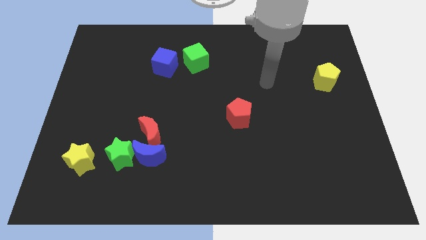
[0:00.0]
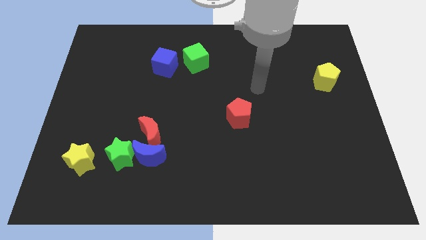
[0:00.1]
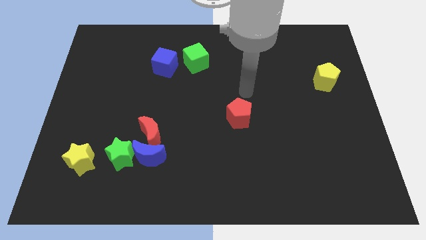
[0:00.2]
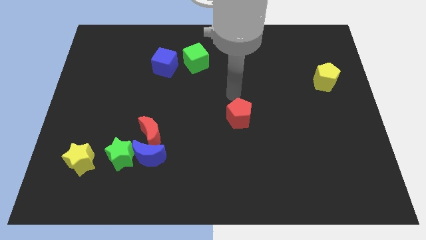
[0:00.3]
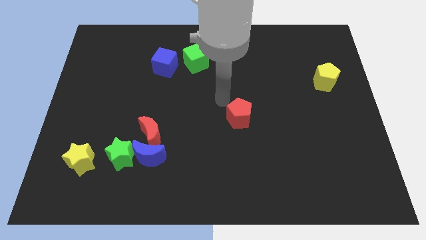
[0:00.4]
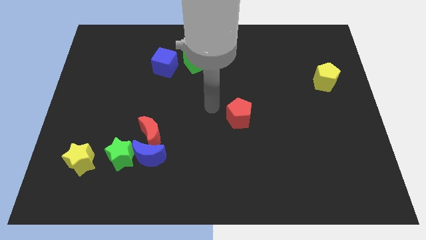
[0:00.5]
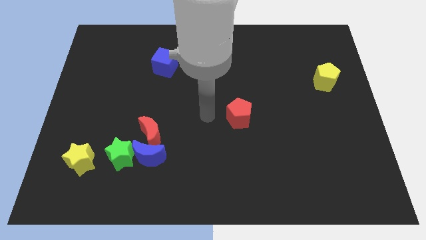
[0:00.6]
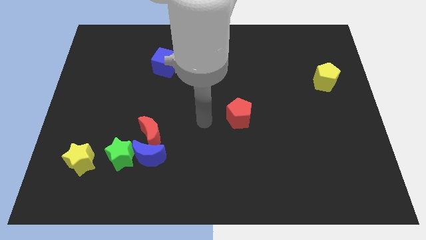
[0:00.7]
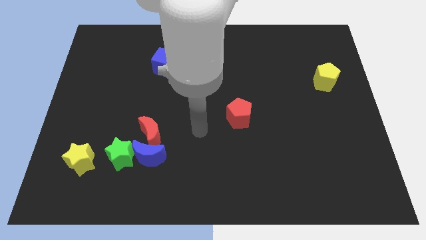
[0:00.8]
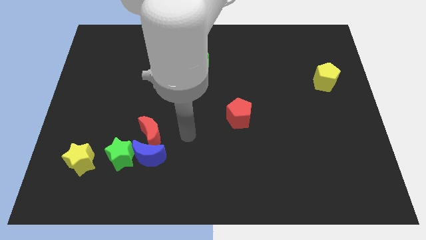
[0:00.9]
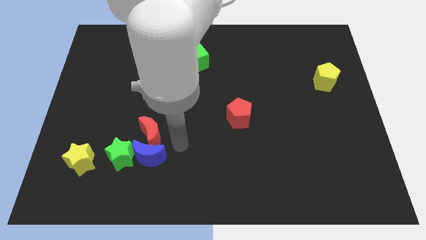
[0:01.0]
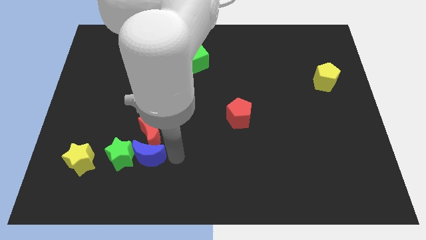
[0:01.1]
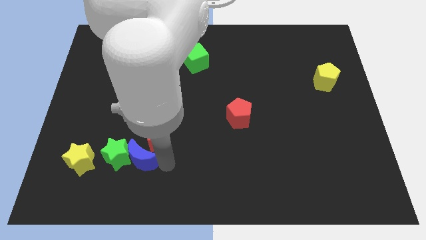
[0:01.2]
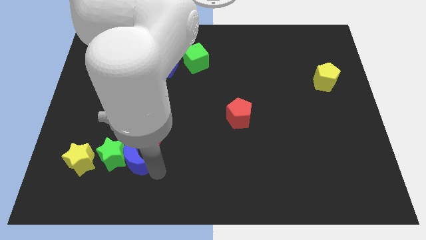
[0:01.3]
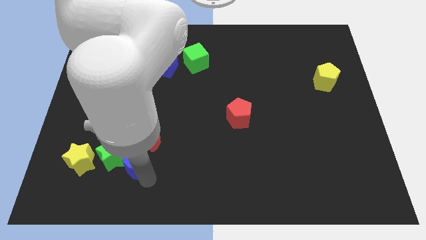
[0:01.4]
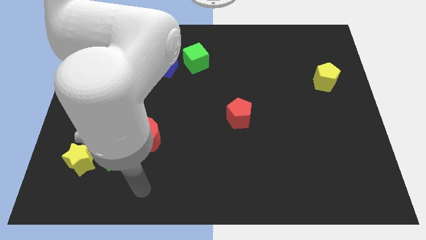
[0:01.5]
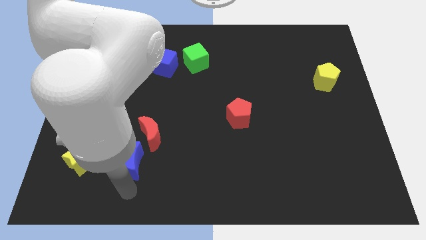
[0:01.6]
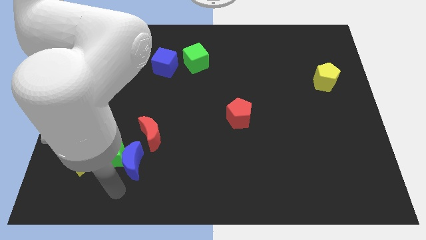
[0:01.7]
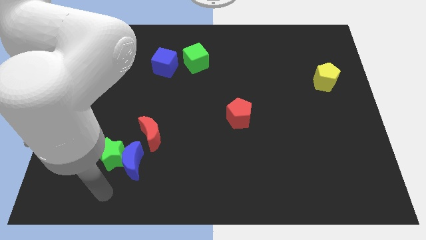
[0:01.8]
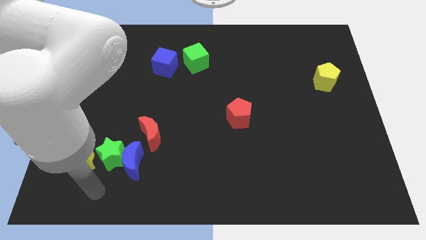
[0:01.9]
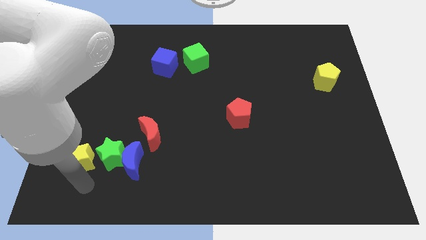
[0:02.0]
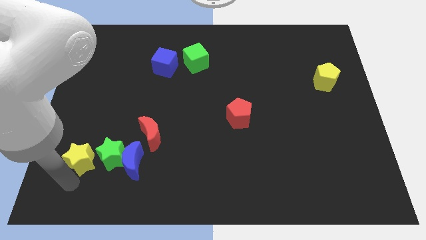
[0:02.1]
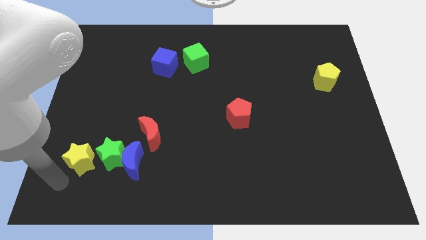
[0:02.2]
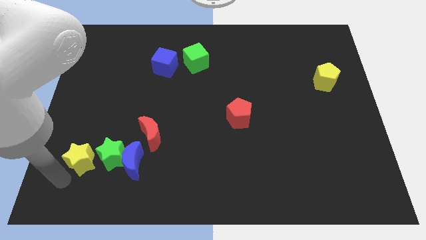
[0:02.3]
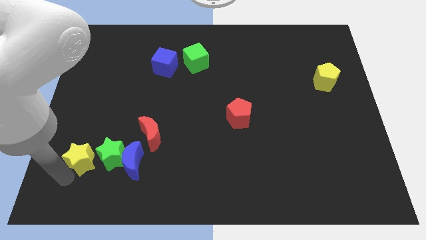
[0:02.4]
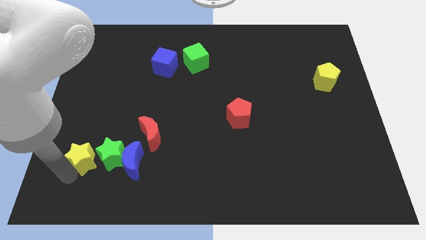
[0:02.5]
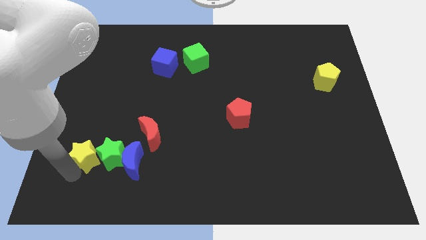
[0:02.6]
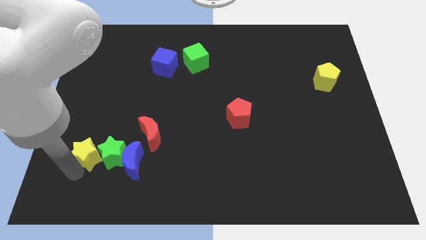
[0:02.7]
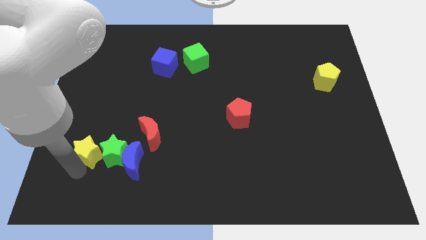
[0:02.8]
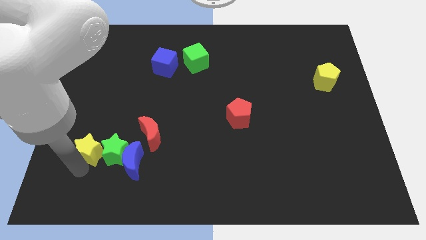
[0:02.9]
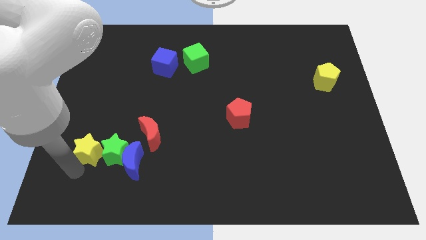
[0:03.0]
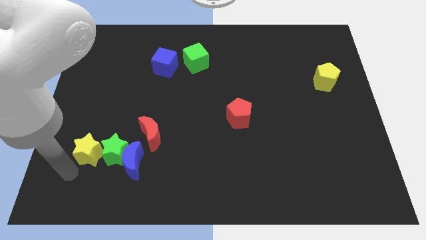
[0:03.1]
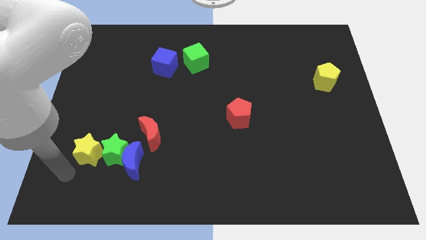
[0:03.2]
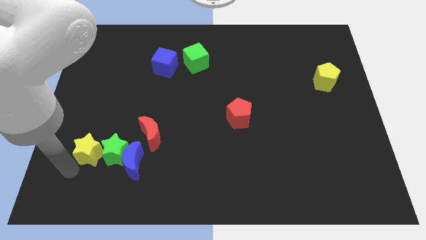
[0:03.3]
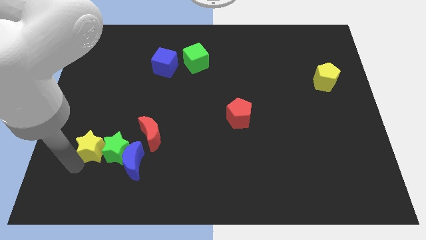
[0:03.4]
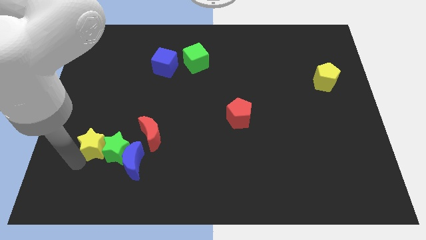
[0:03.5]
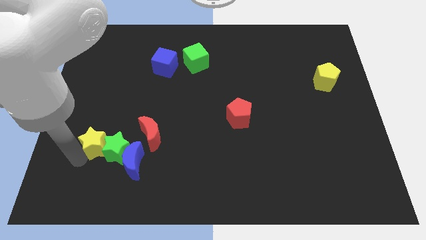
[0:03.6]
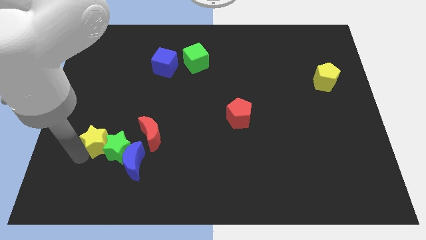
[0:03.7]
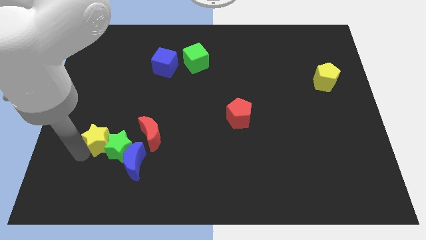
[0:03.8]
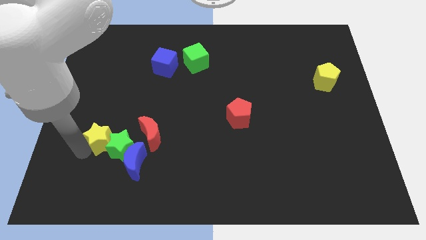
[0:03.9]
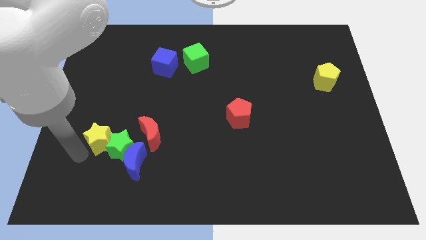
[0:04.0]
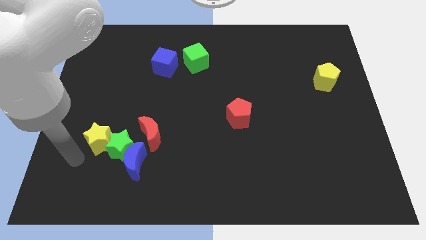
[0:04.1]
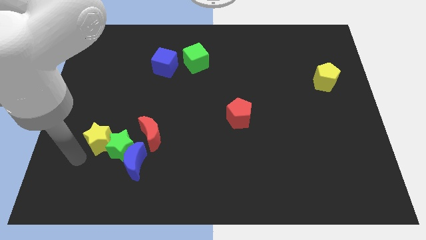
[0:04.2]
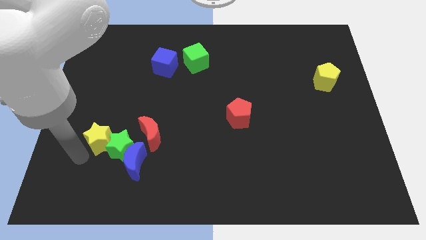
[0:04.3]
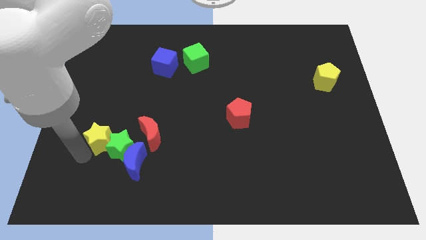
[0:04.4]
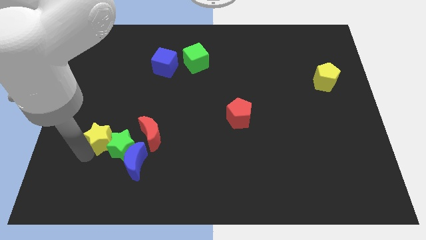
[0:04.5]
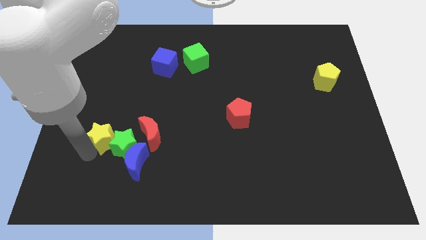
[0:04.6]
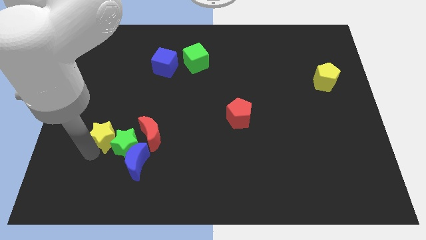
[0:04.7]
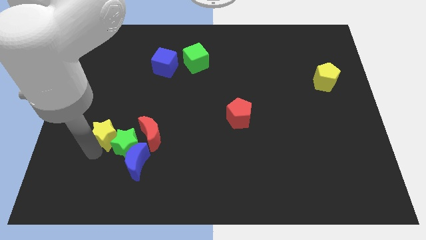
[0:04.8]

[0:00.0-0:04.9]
slide the yellow star somewhat up and to the right

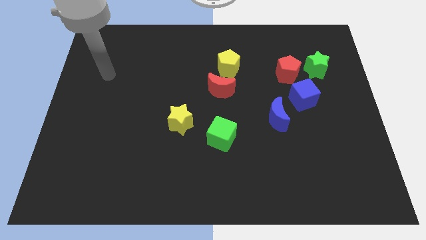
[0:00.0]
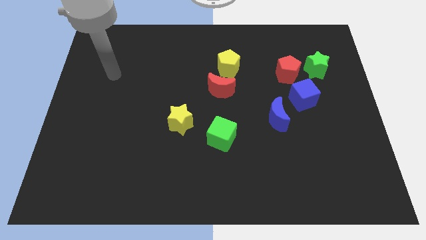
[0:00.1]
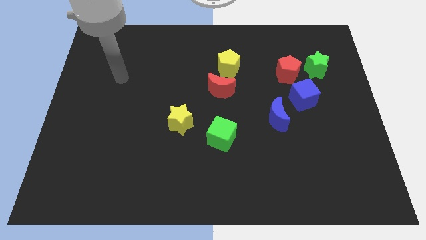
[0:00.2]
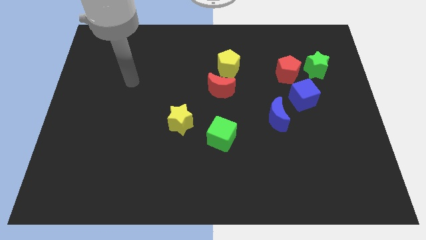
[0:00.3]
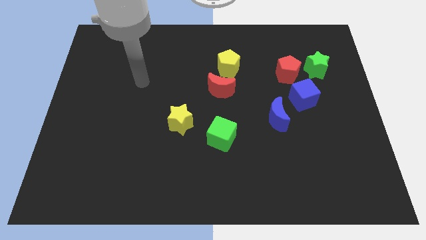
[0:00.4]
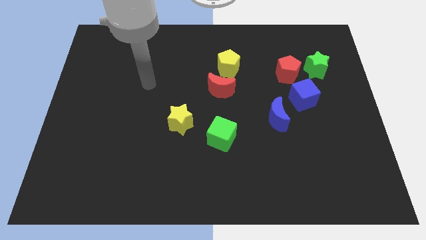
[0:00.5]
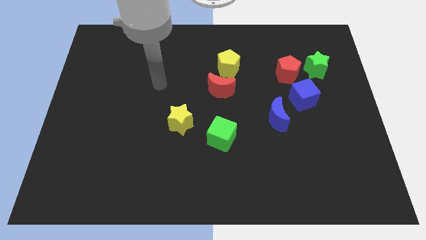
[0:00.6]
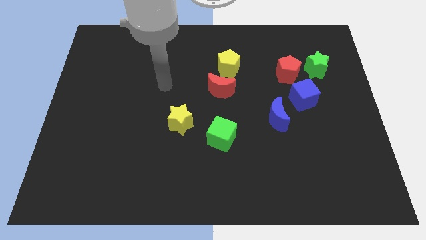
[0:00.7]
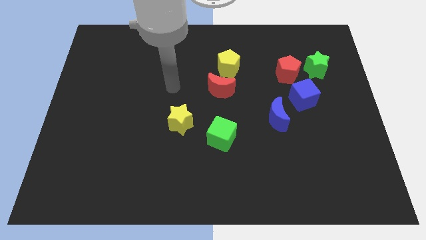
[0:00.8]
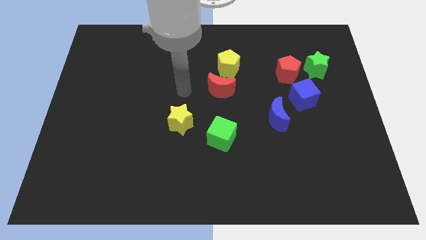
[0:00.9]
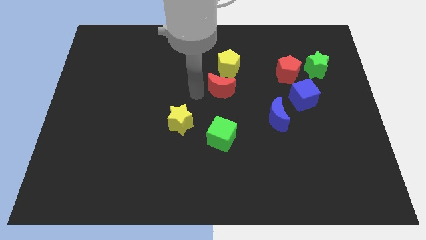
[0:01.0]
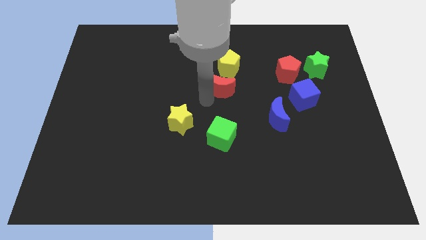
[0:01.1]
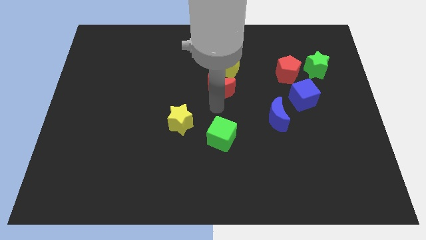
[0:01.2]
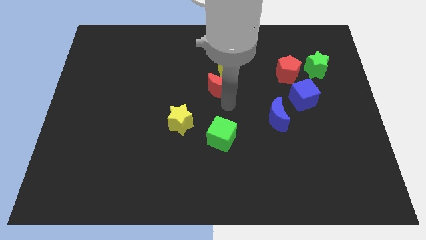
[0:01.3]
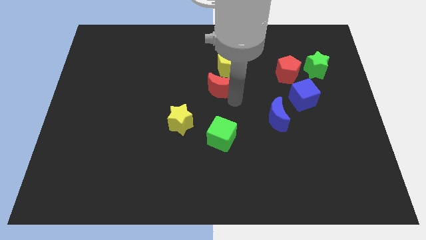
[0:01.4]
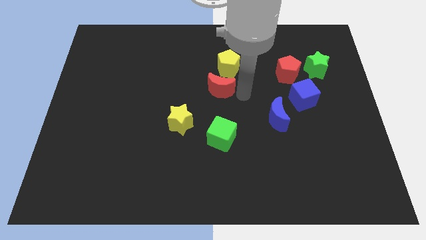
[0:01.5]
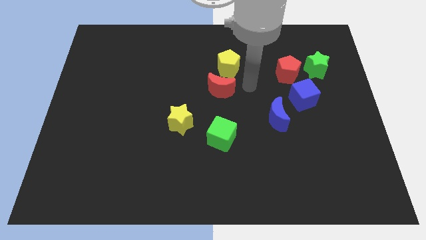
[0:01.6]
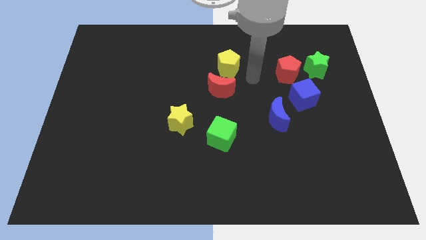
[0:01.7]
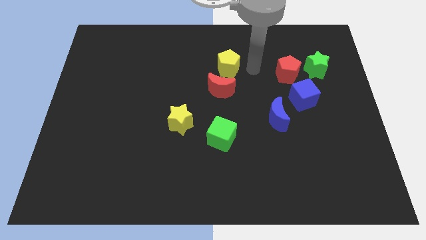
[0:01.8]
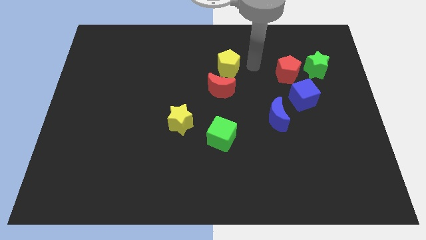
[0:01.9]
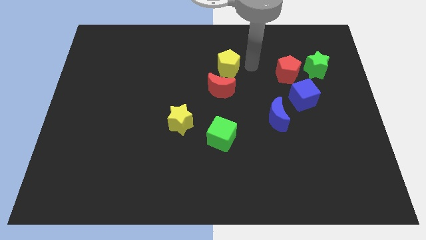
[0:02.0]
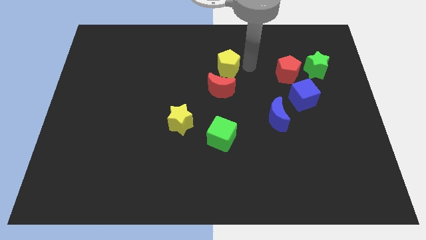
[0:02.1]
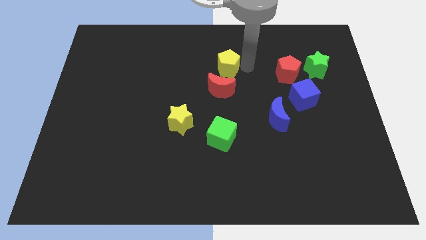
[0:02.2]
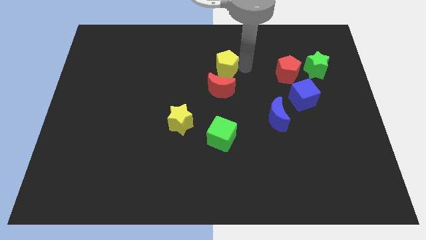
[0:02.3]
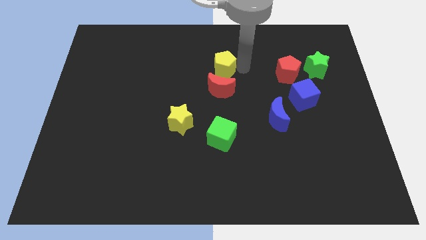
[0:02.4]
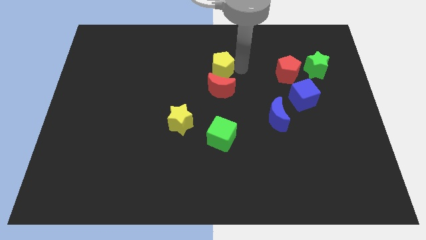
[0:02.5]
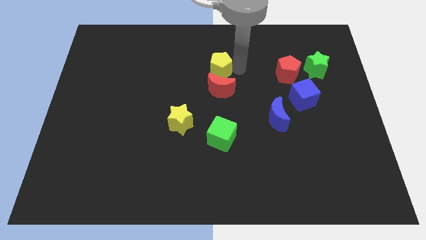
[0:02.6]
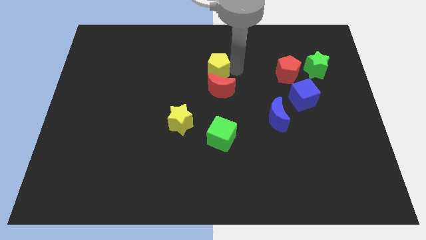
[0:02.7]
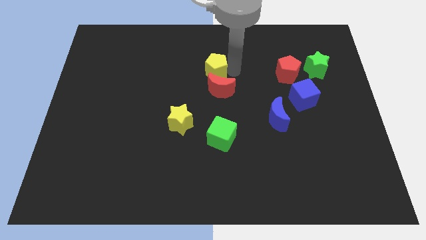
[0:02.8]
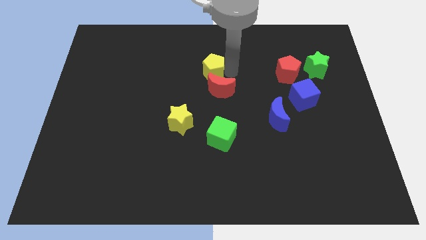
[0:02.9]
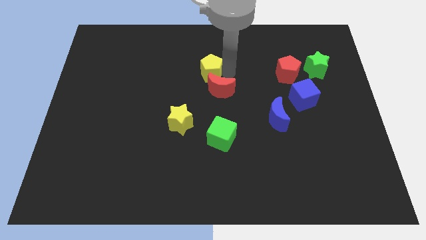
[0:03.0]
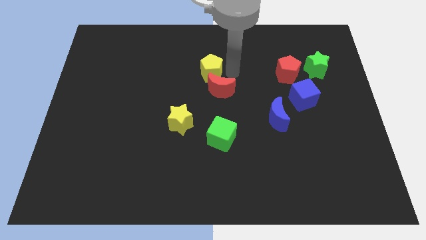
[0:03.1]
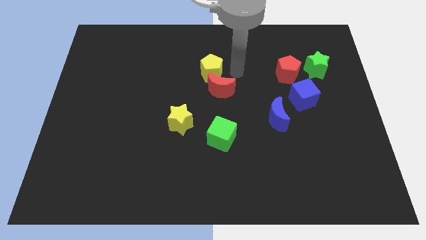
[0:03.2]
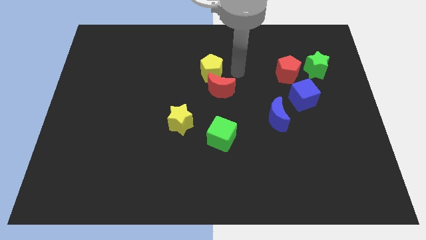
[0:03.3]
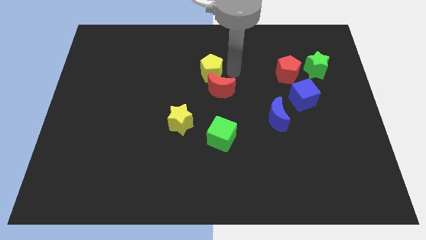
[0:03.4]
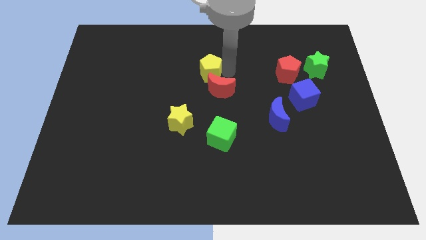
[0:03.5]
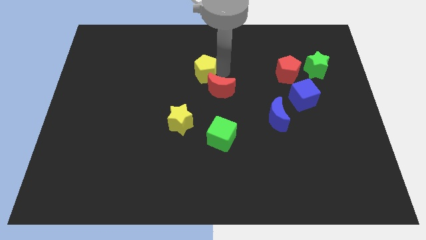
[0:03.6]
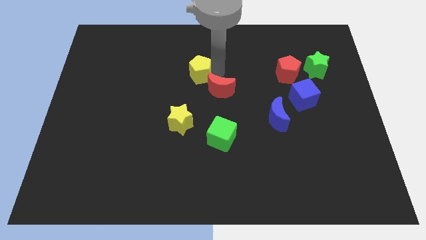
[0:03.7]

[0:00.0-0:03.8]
slide the yellow pentagon a little bit to the left
